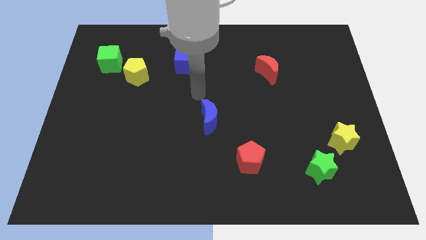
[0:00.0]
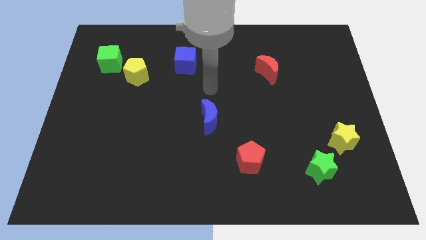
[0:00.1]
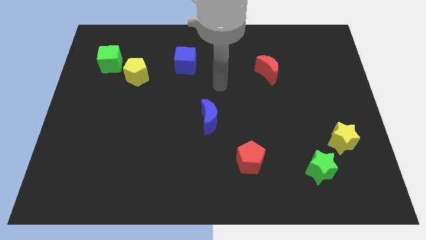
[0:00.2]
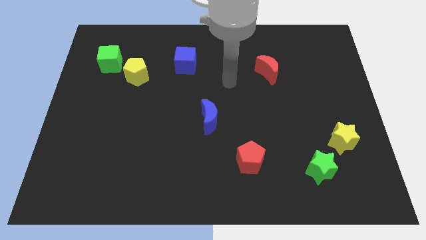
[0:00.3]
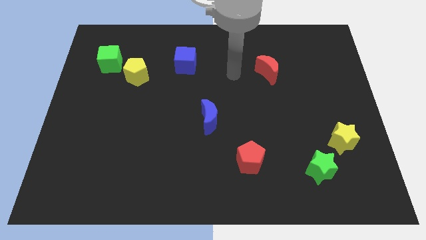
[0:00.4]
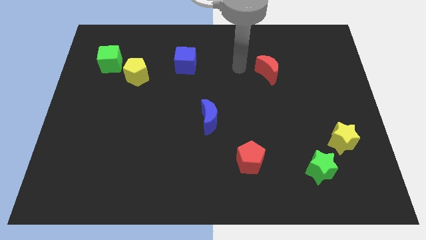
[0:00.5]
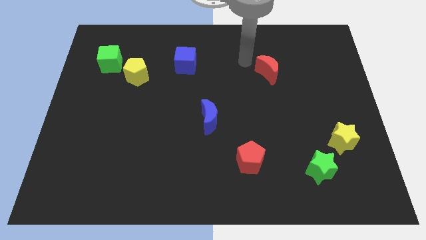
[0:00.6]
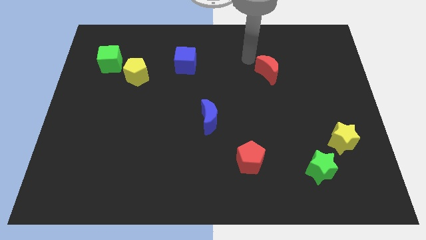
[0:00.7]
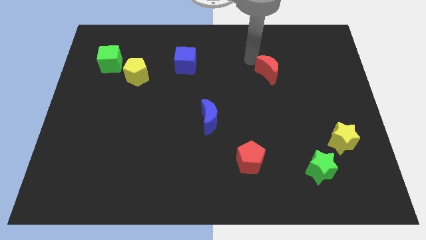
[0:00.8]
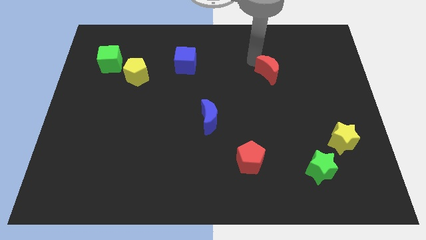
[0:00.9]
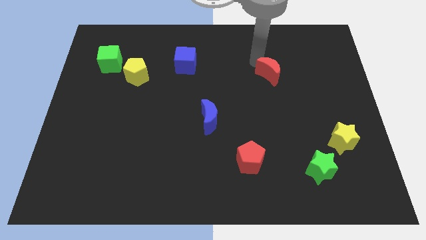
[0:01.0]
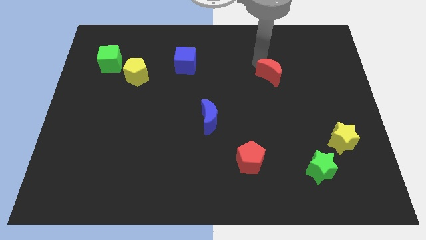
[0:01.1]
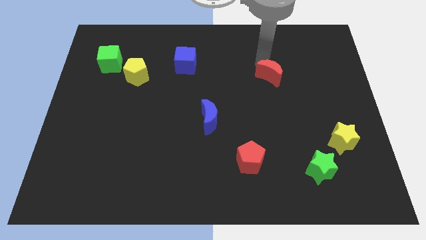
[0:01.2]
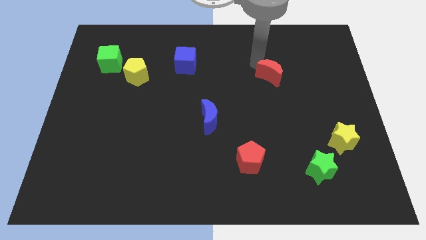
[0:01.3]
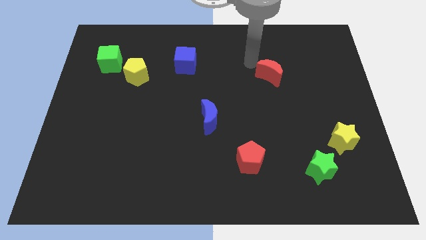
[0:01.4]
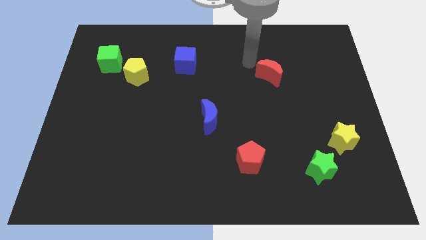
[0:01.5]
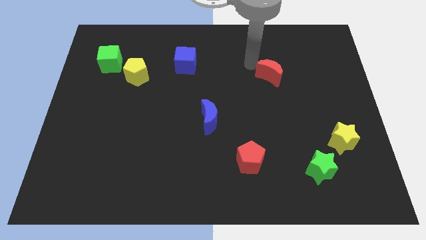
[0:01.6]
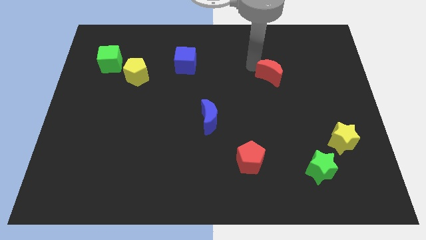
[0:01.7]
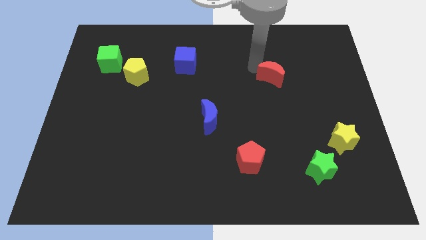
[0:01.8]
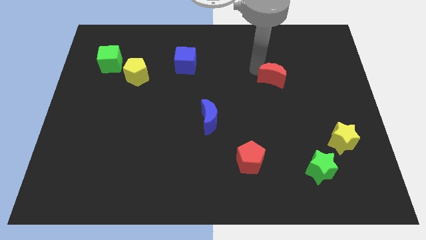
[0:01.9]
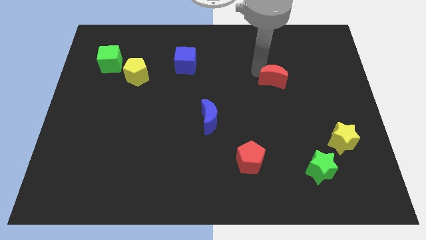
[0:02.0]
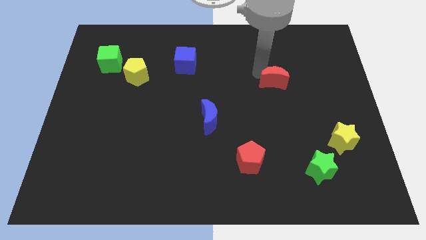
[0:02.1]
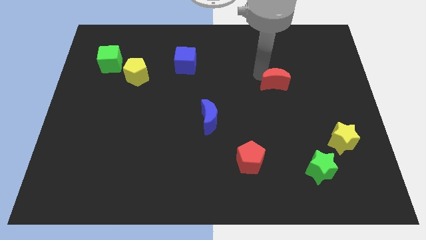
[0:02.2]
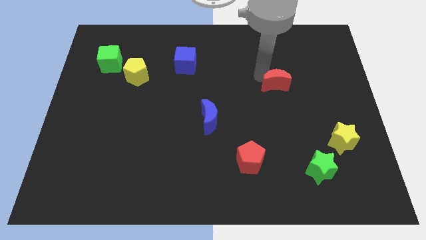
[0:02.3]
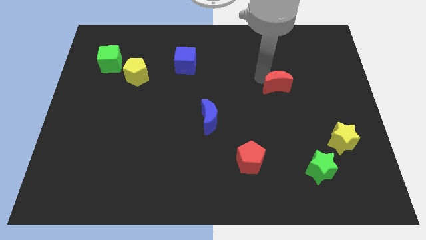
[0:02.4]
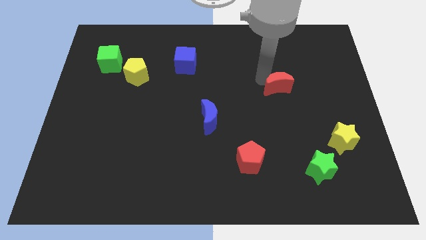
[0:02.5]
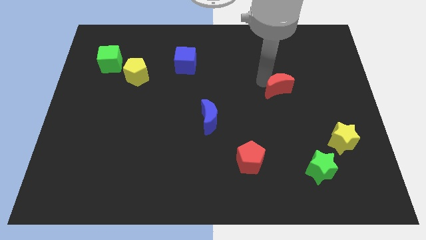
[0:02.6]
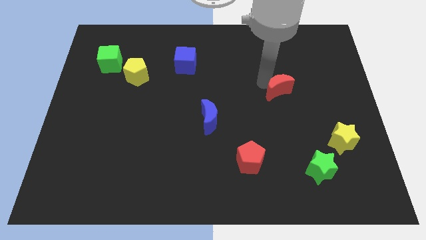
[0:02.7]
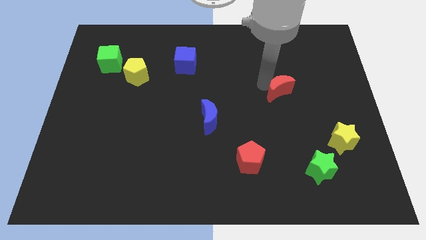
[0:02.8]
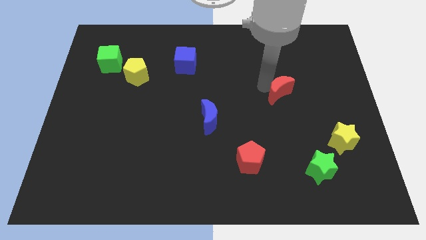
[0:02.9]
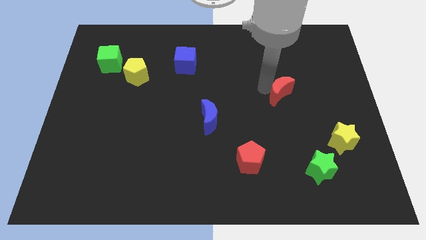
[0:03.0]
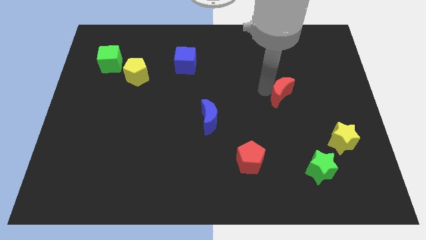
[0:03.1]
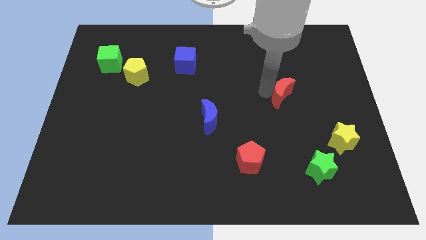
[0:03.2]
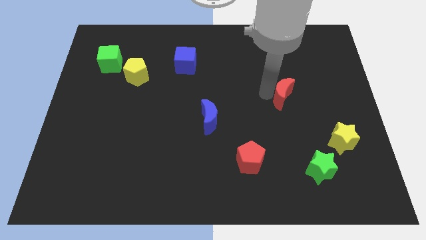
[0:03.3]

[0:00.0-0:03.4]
slide the red moon a little down and right diagonally

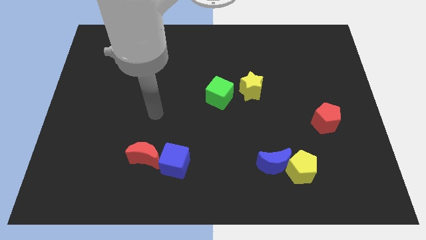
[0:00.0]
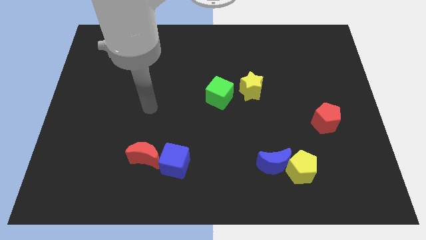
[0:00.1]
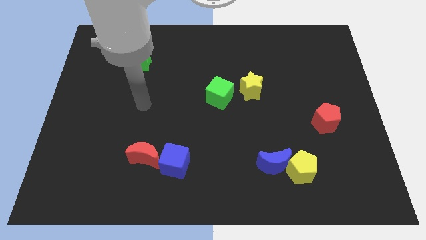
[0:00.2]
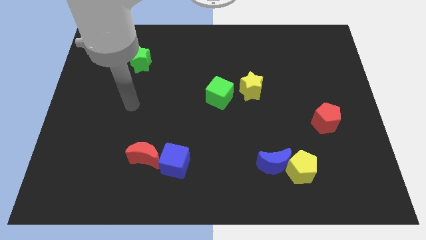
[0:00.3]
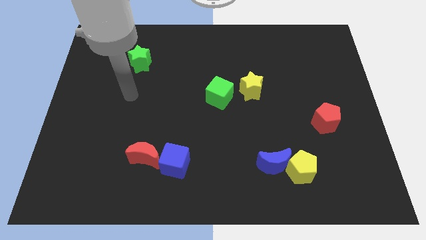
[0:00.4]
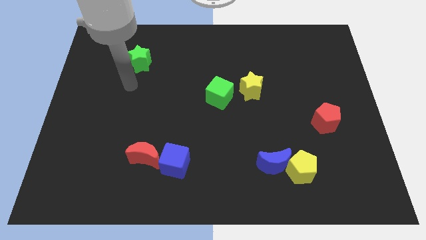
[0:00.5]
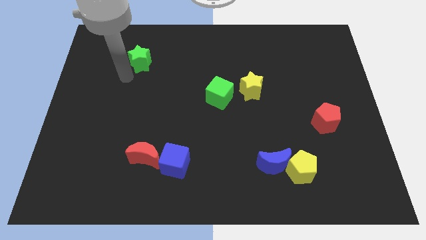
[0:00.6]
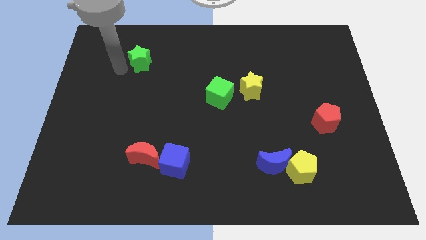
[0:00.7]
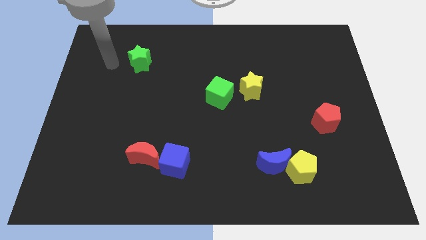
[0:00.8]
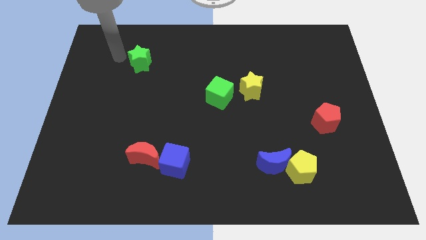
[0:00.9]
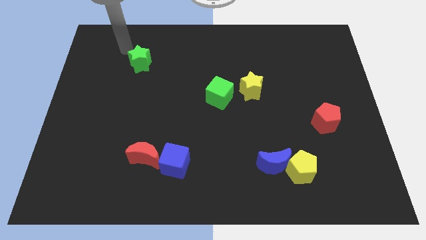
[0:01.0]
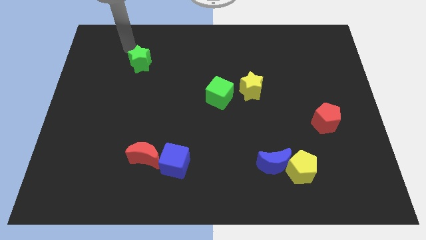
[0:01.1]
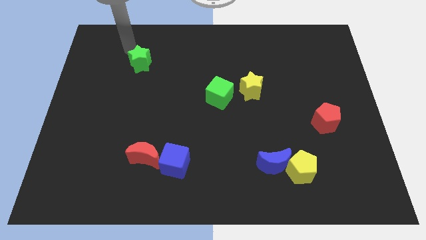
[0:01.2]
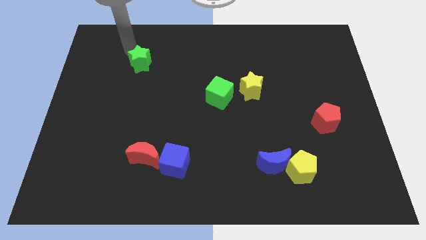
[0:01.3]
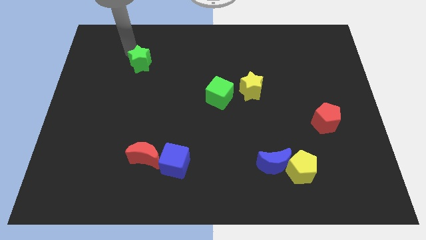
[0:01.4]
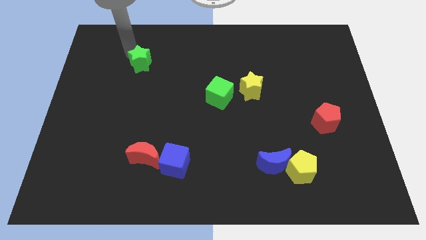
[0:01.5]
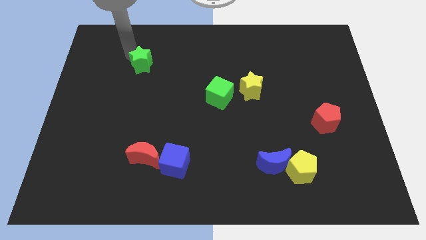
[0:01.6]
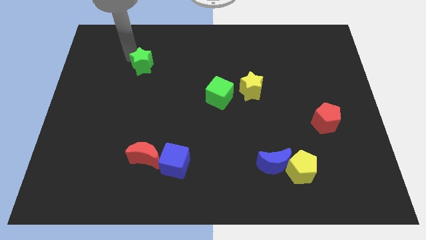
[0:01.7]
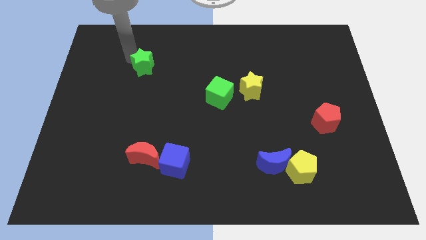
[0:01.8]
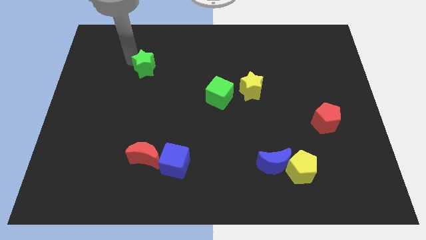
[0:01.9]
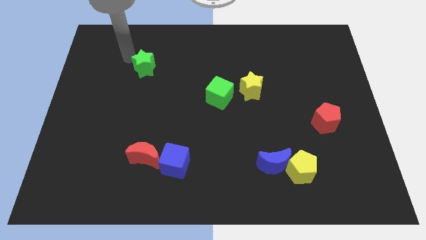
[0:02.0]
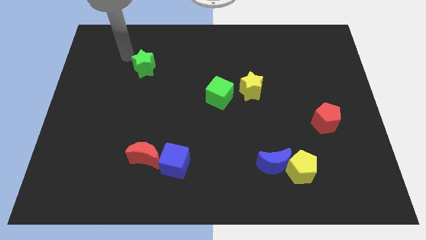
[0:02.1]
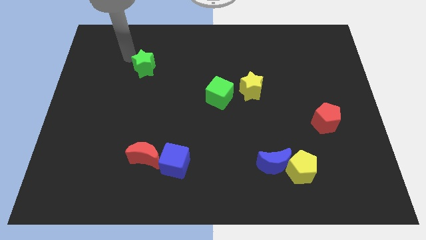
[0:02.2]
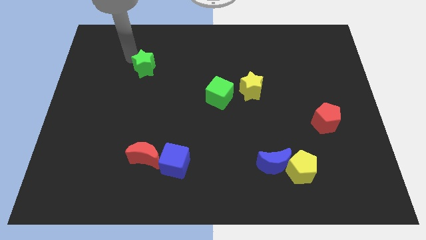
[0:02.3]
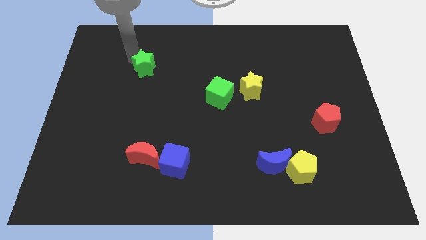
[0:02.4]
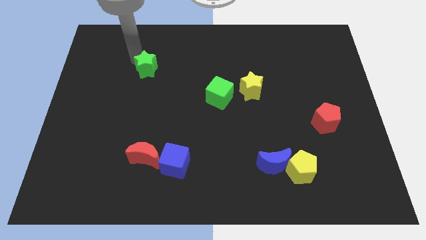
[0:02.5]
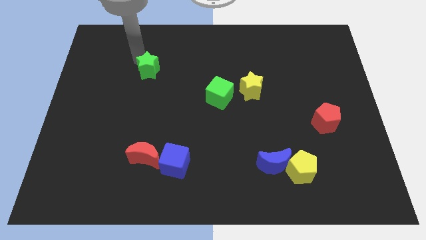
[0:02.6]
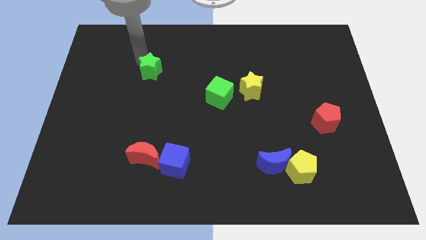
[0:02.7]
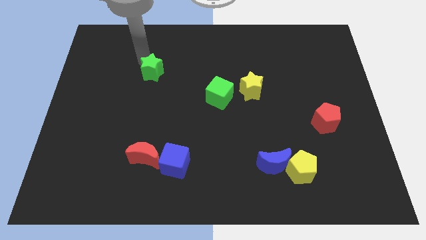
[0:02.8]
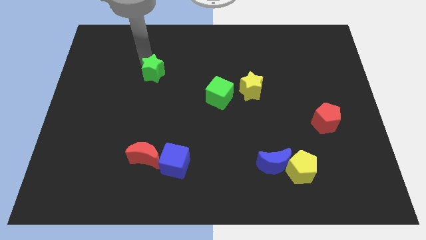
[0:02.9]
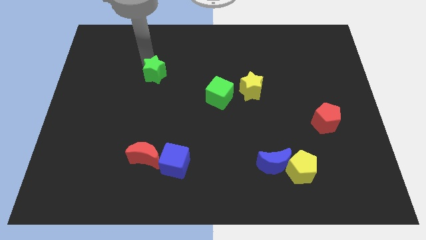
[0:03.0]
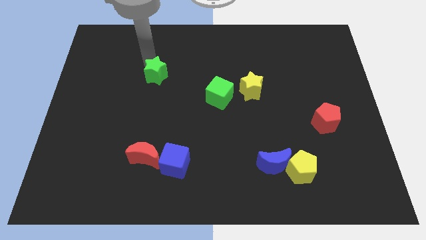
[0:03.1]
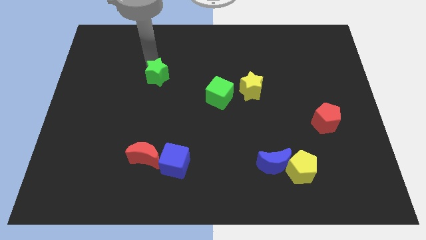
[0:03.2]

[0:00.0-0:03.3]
push the green star downwards and then to the right a little bit

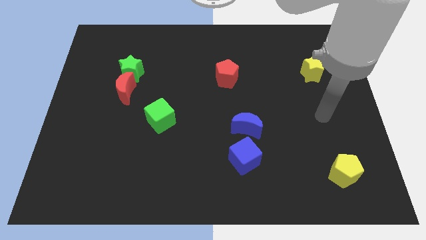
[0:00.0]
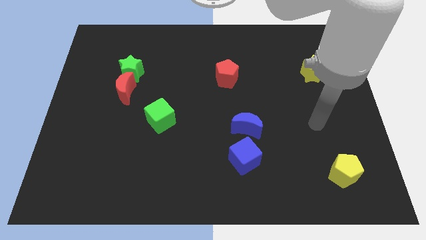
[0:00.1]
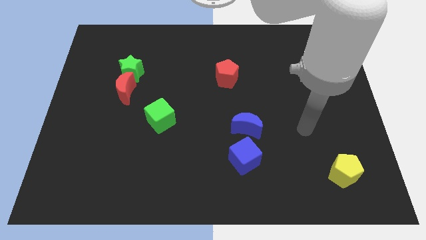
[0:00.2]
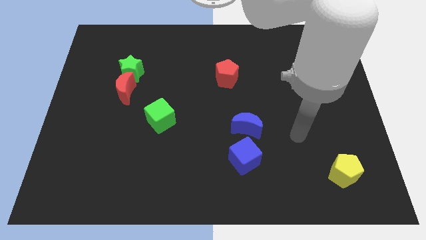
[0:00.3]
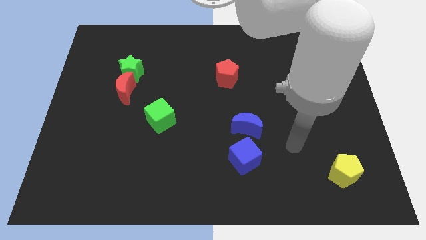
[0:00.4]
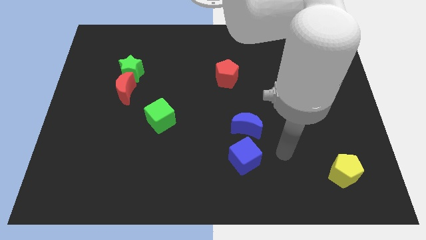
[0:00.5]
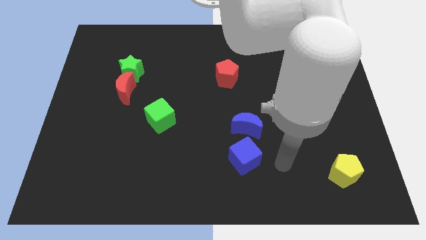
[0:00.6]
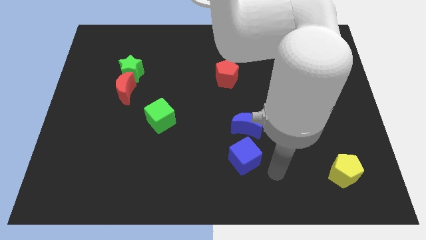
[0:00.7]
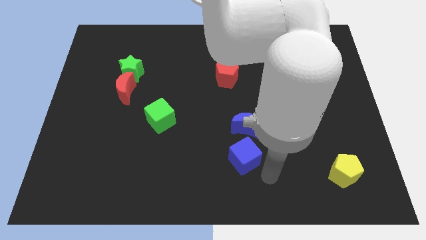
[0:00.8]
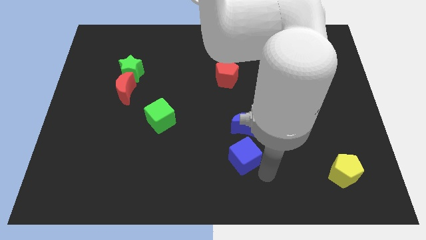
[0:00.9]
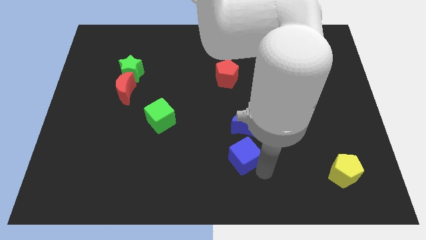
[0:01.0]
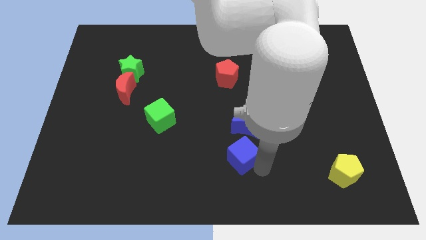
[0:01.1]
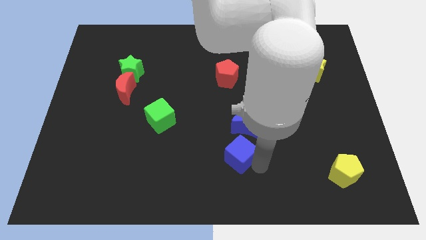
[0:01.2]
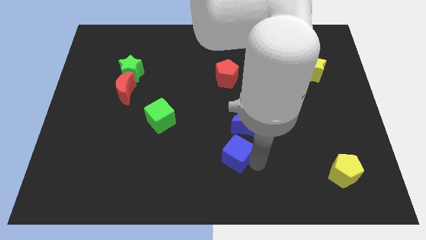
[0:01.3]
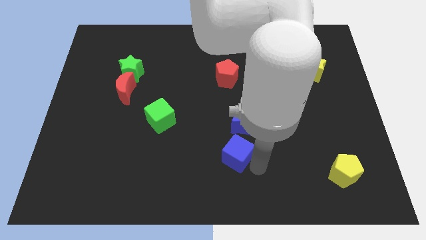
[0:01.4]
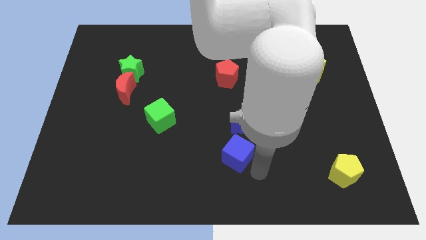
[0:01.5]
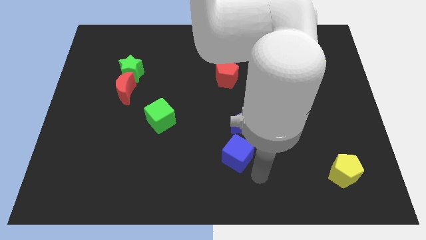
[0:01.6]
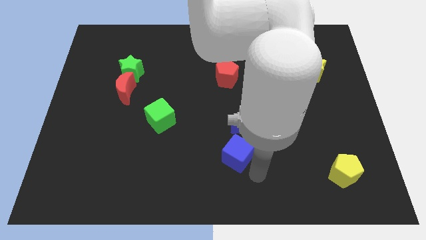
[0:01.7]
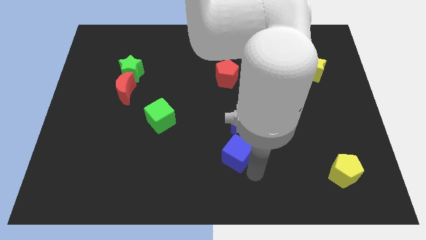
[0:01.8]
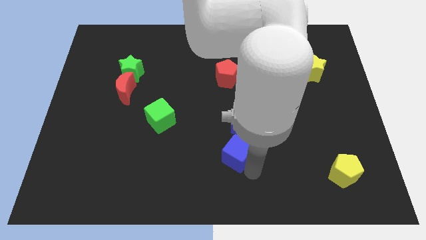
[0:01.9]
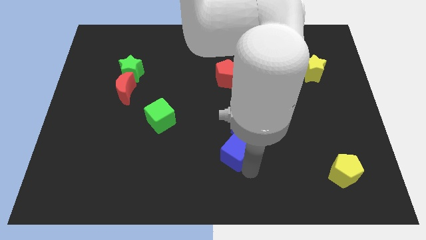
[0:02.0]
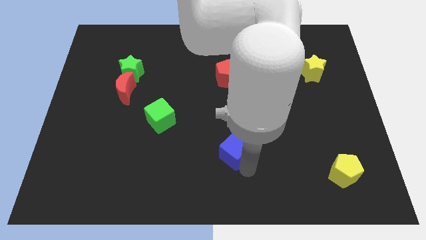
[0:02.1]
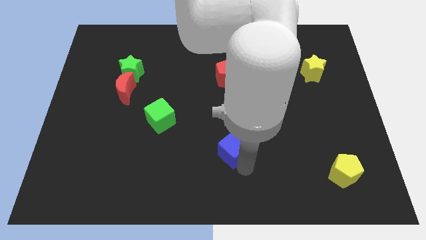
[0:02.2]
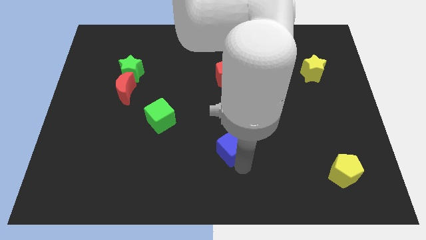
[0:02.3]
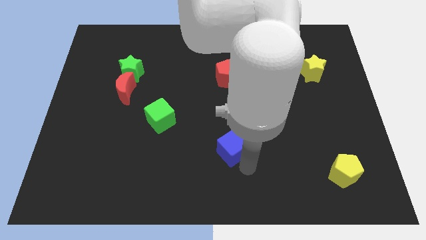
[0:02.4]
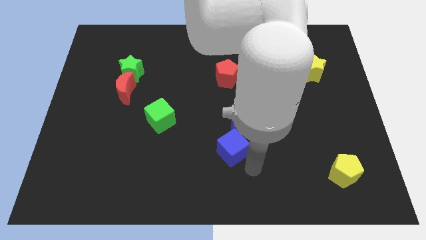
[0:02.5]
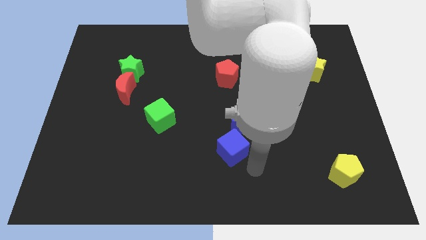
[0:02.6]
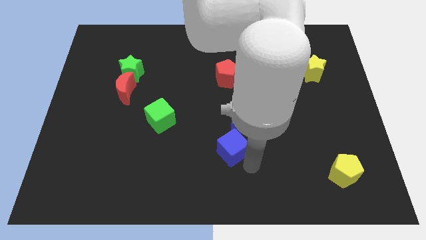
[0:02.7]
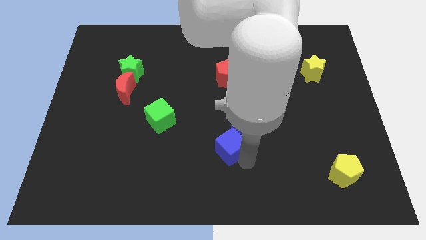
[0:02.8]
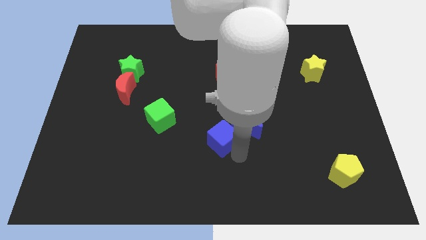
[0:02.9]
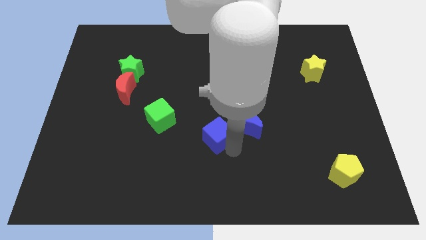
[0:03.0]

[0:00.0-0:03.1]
push the blue cube upwards and then to the left slightly
